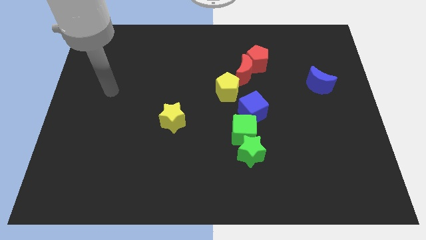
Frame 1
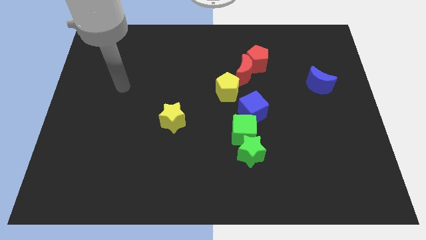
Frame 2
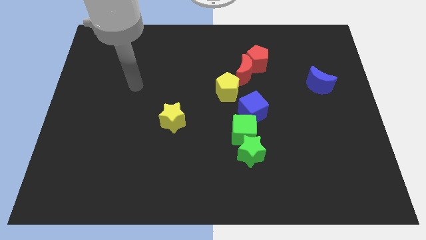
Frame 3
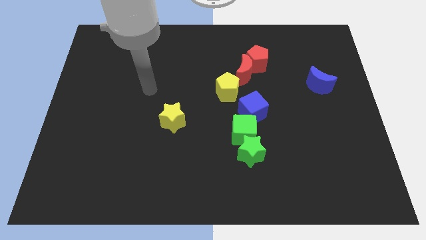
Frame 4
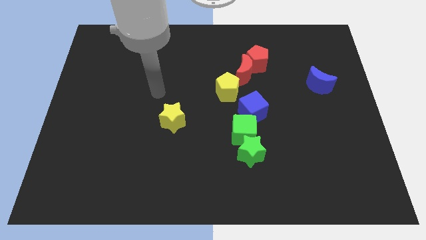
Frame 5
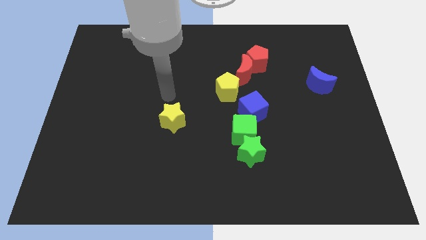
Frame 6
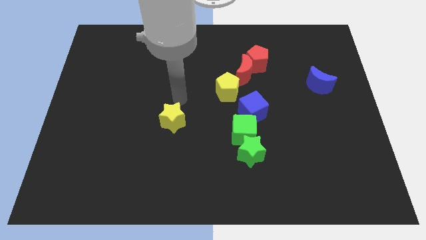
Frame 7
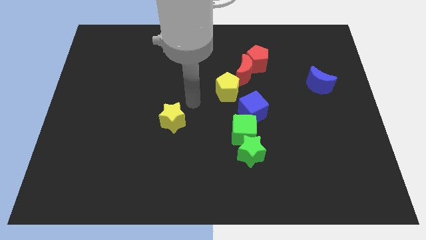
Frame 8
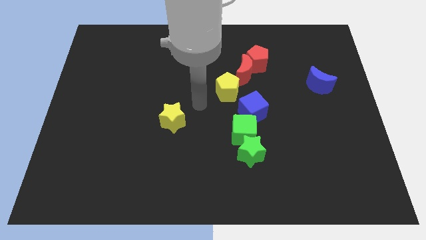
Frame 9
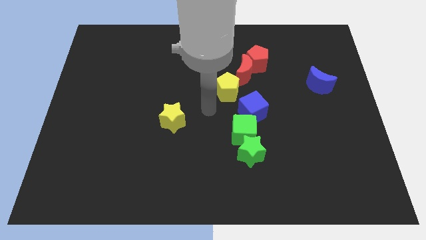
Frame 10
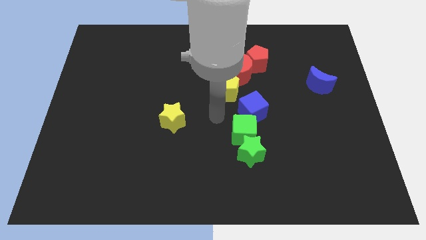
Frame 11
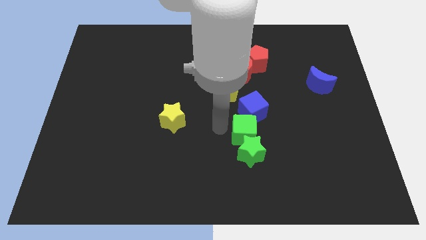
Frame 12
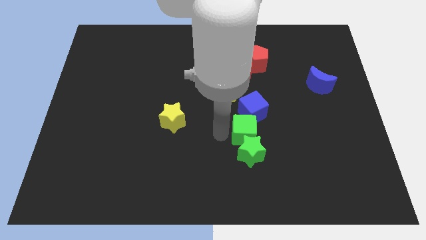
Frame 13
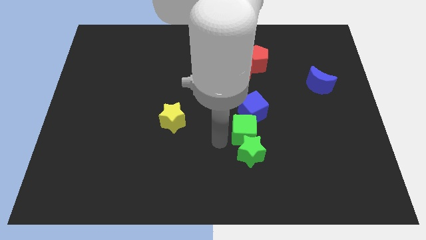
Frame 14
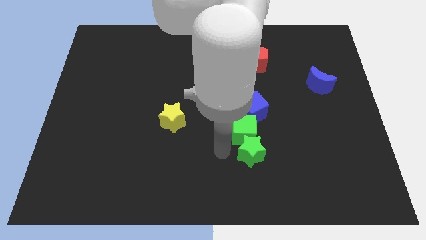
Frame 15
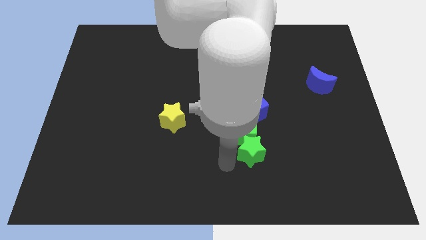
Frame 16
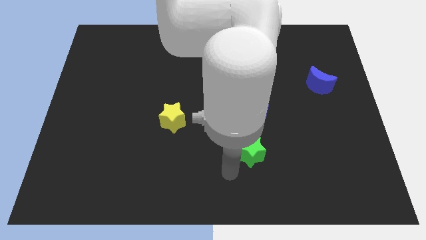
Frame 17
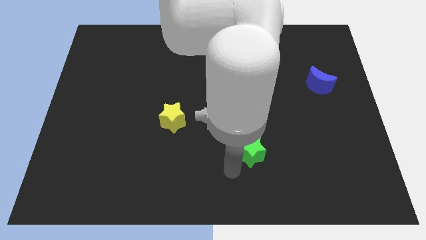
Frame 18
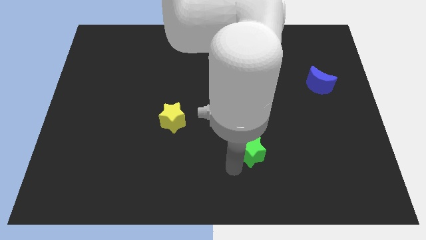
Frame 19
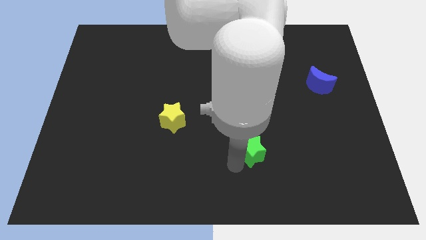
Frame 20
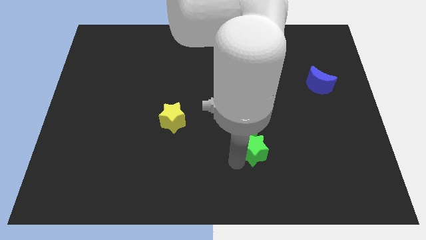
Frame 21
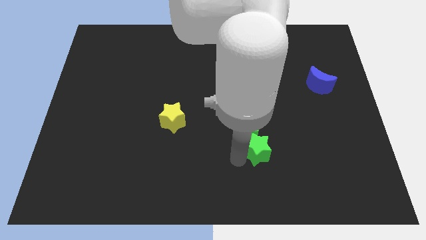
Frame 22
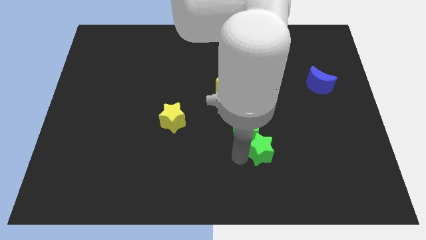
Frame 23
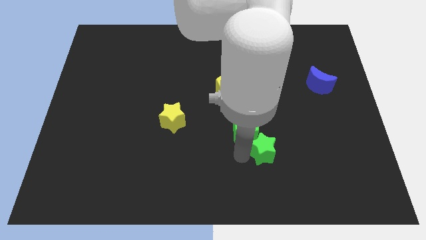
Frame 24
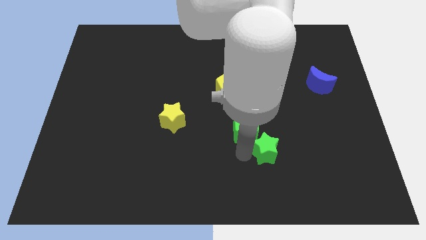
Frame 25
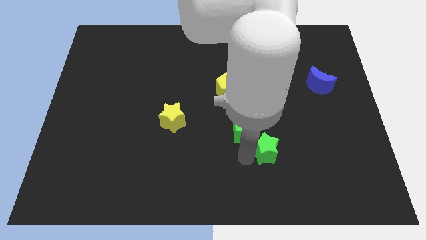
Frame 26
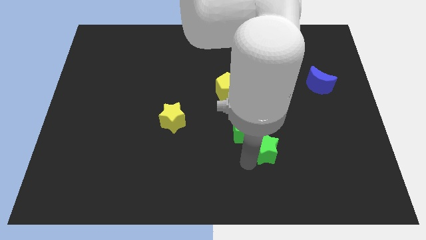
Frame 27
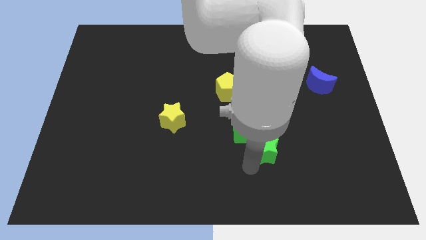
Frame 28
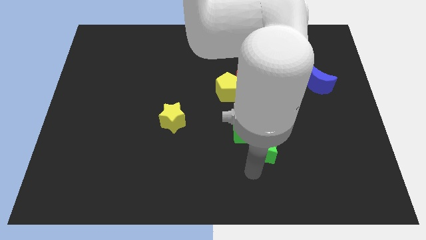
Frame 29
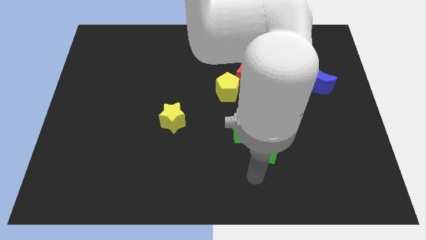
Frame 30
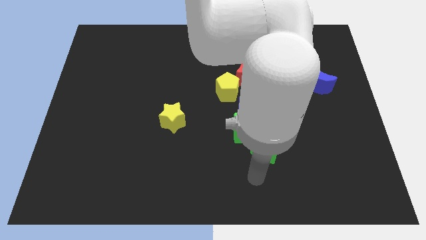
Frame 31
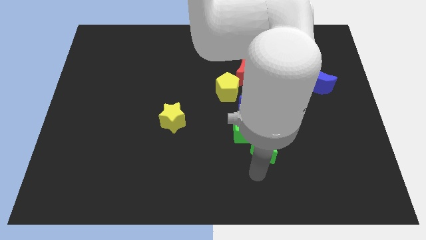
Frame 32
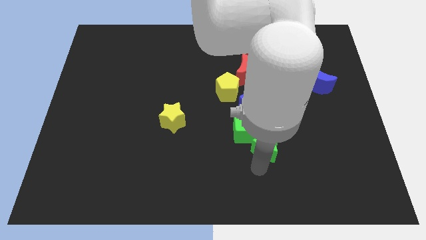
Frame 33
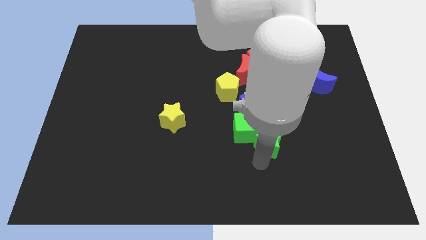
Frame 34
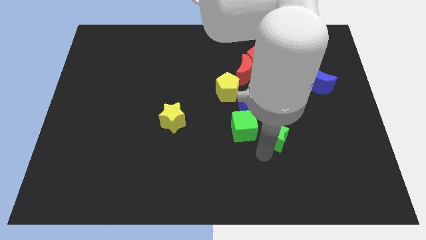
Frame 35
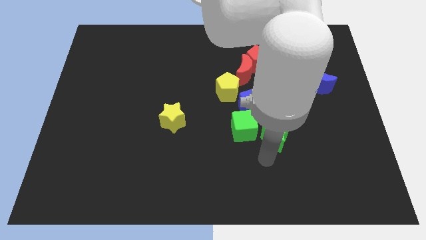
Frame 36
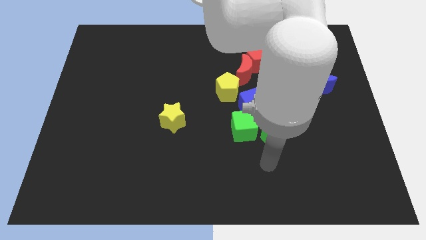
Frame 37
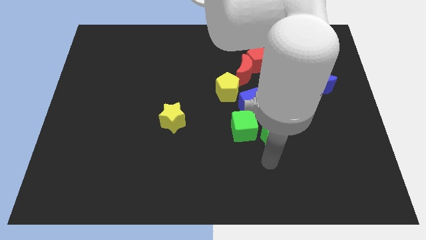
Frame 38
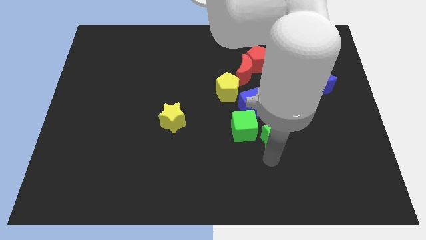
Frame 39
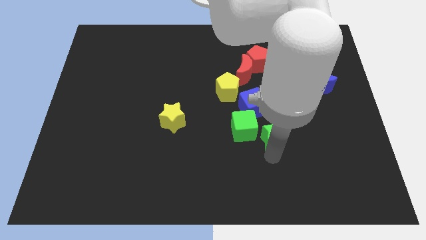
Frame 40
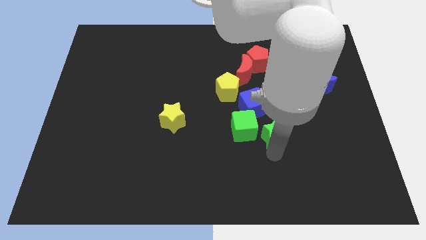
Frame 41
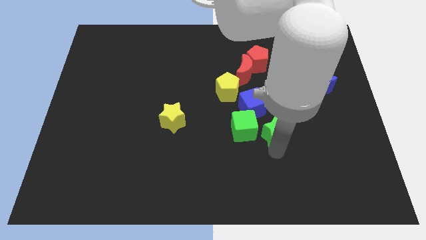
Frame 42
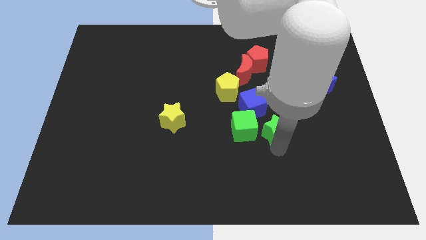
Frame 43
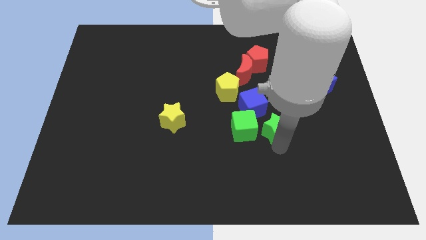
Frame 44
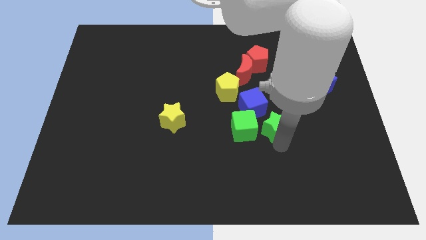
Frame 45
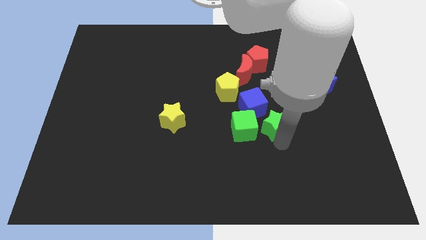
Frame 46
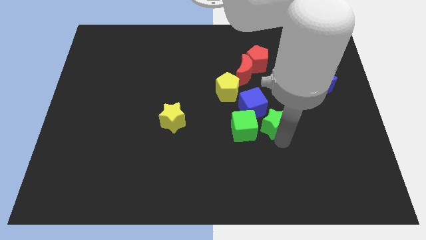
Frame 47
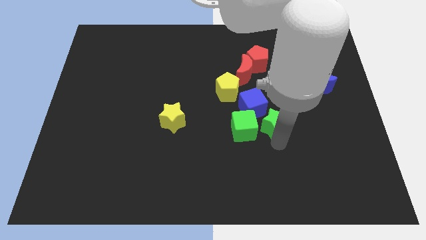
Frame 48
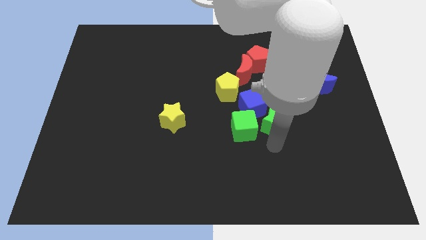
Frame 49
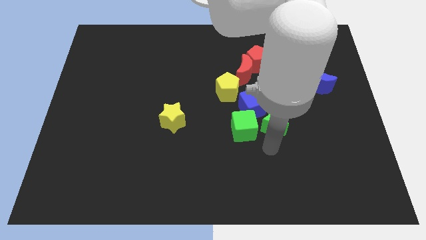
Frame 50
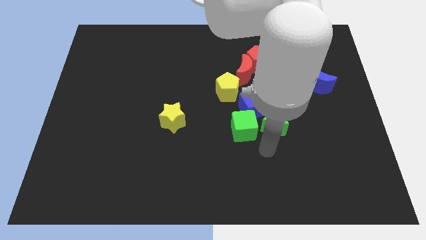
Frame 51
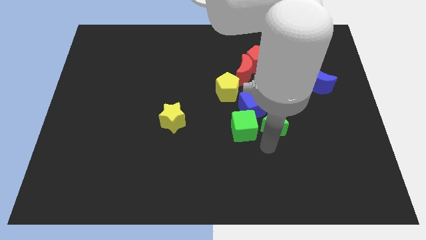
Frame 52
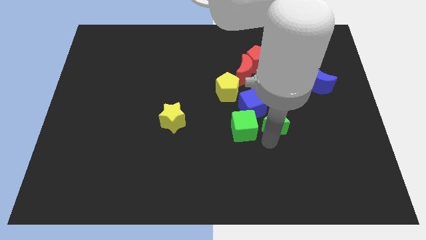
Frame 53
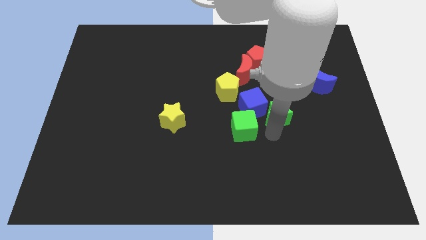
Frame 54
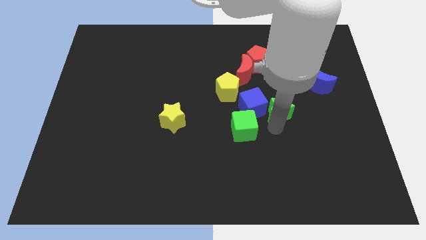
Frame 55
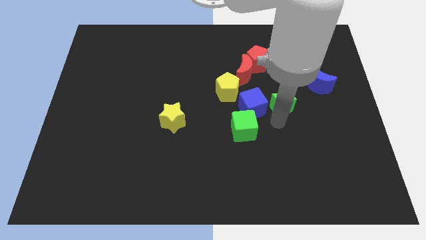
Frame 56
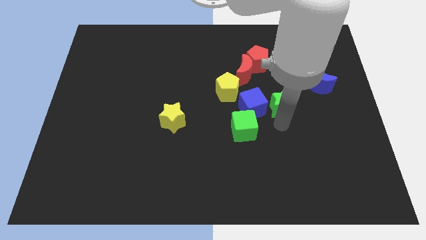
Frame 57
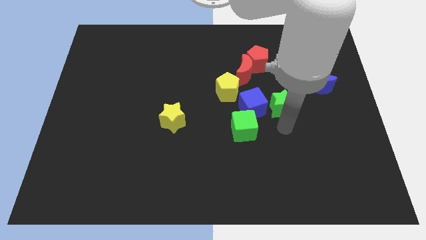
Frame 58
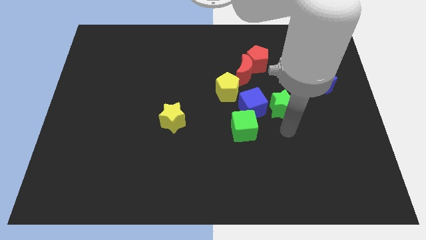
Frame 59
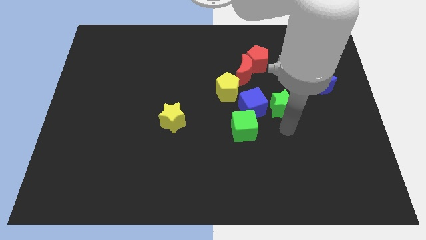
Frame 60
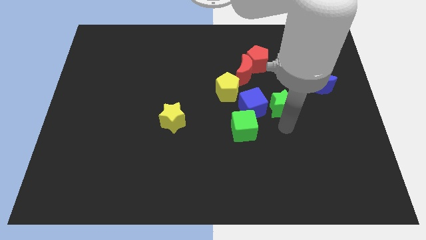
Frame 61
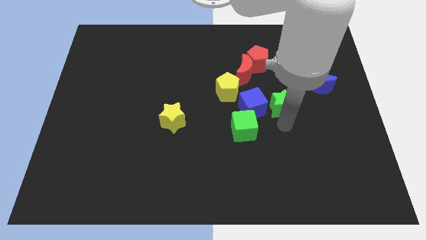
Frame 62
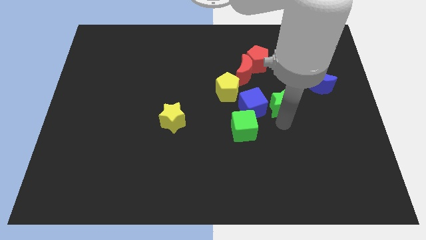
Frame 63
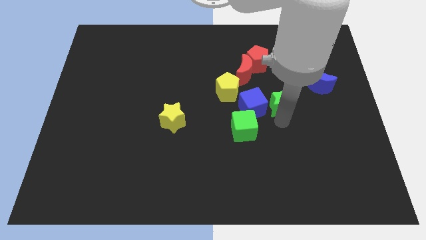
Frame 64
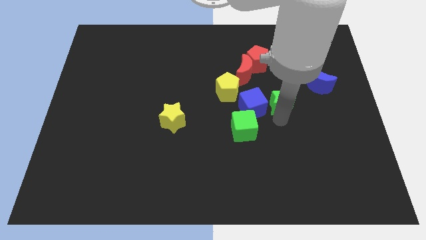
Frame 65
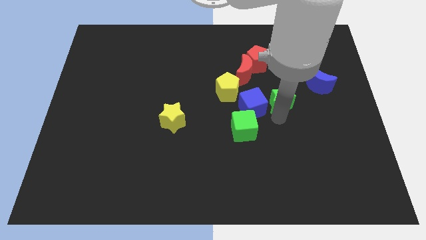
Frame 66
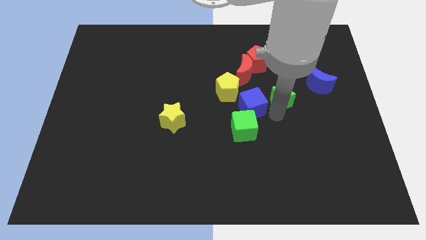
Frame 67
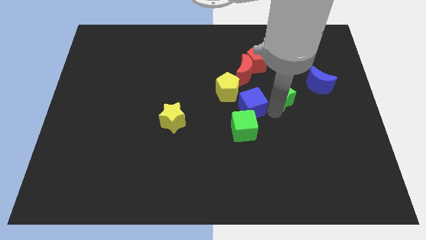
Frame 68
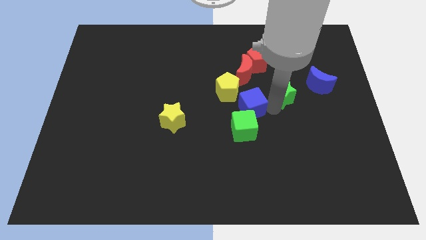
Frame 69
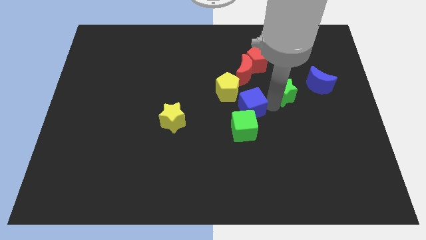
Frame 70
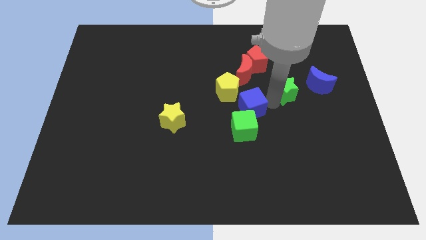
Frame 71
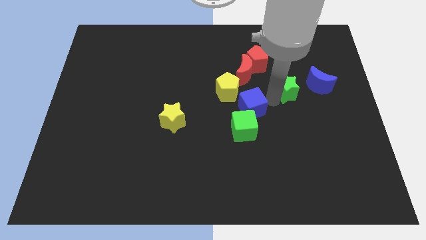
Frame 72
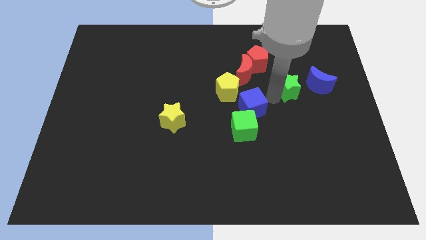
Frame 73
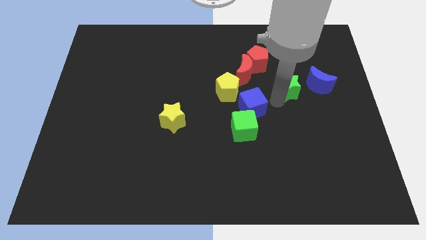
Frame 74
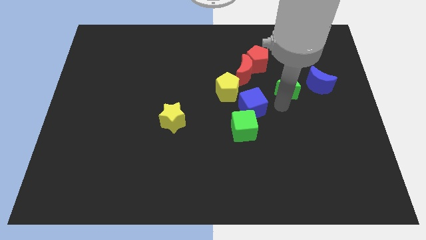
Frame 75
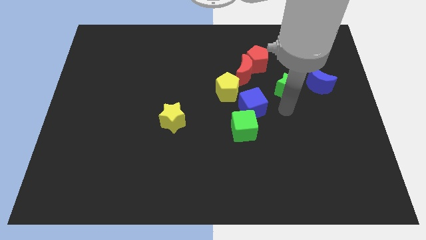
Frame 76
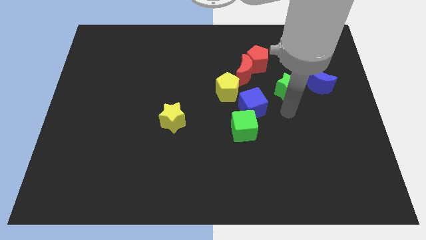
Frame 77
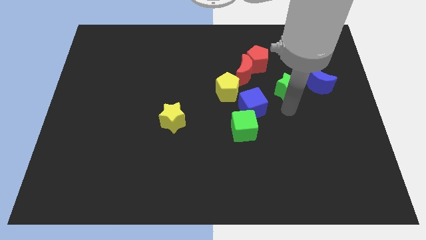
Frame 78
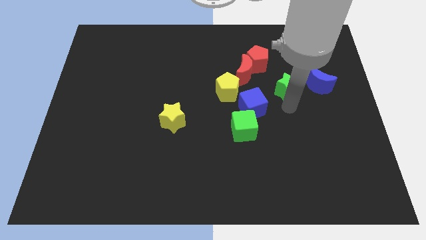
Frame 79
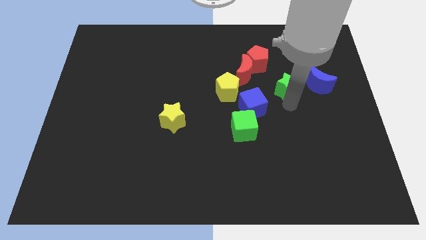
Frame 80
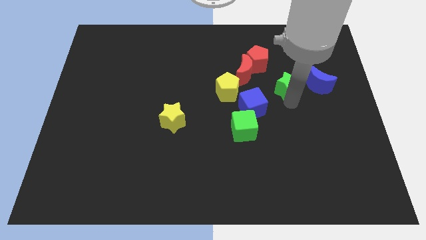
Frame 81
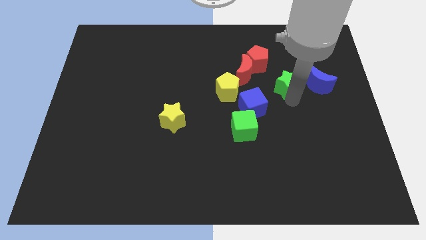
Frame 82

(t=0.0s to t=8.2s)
move the green star right of the red moon
